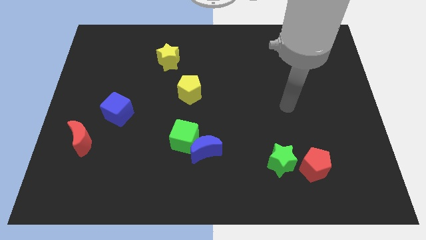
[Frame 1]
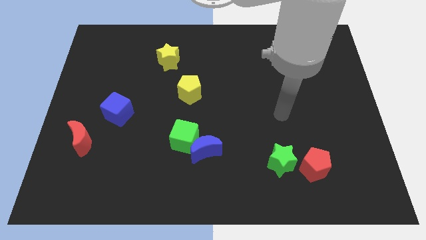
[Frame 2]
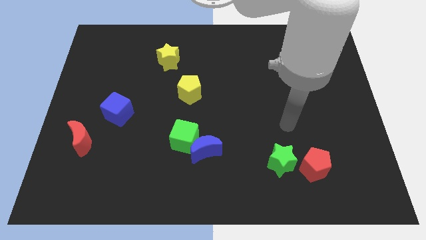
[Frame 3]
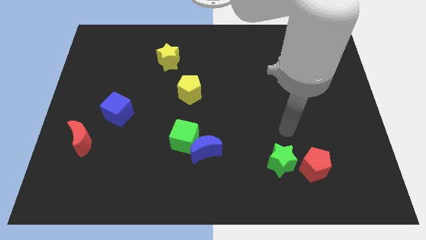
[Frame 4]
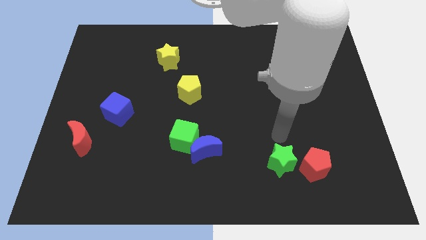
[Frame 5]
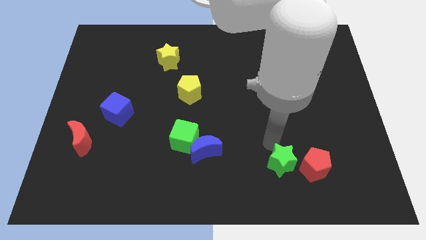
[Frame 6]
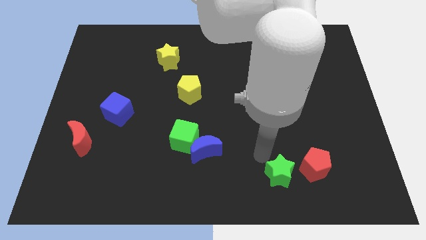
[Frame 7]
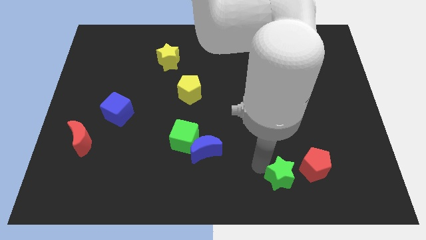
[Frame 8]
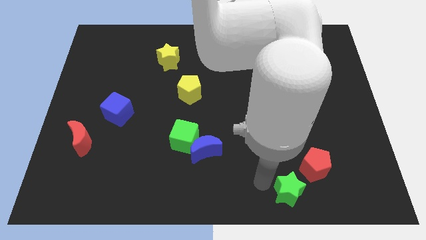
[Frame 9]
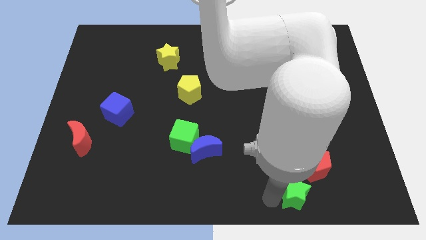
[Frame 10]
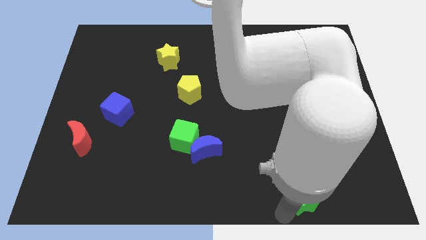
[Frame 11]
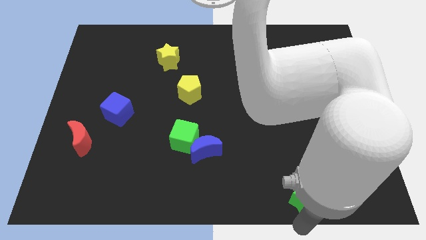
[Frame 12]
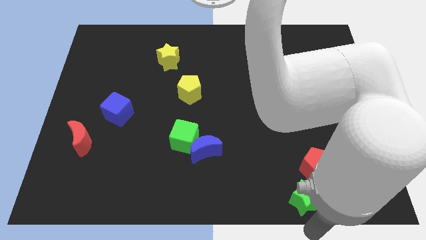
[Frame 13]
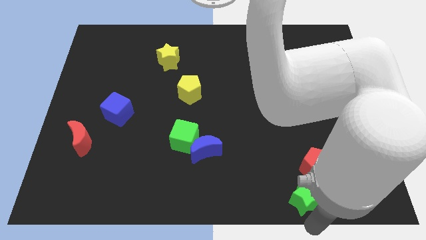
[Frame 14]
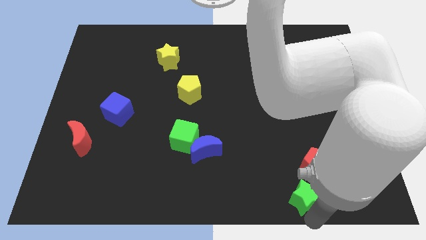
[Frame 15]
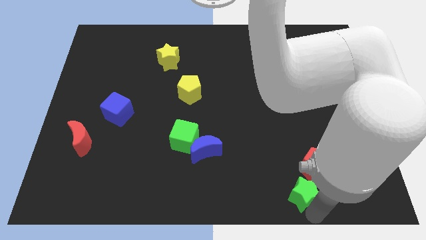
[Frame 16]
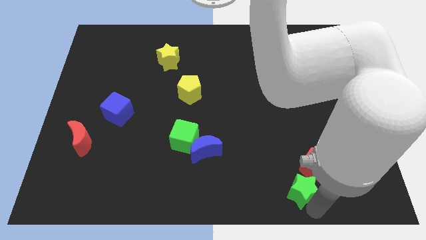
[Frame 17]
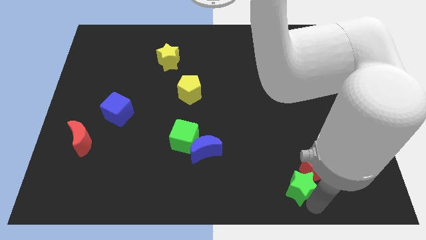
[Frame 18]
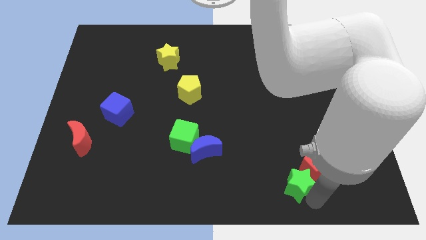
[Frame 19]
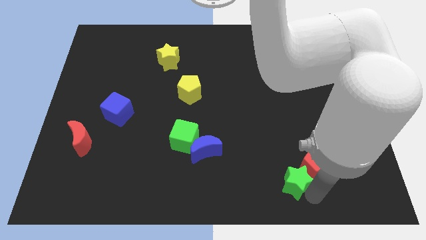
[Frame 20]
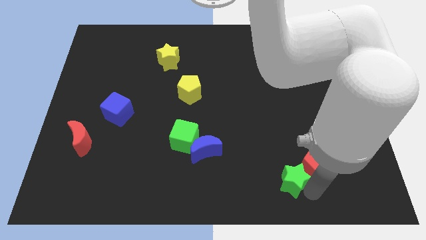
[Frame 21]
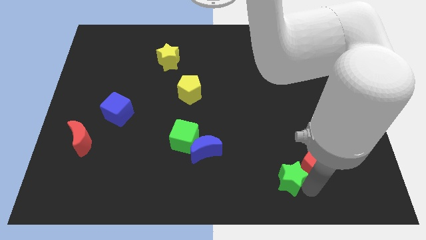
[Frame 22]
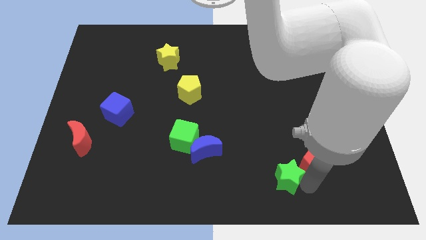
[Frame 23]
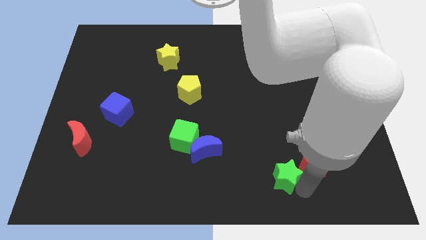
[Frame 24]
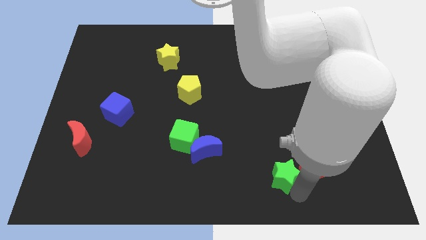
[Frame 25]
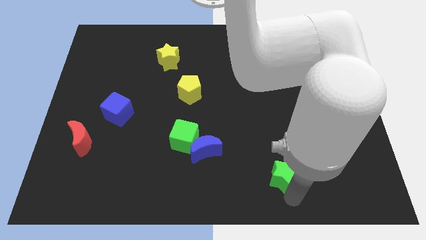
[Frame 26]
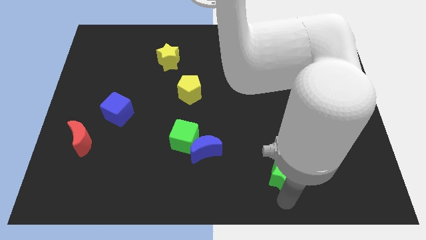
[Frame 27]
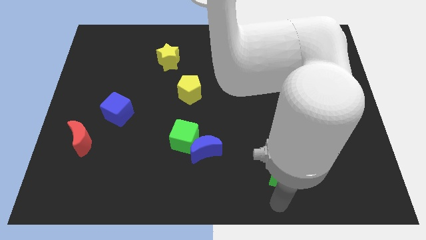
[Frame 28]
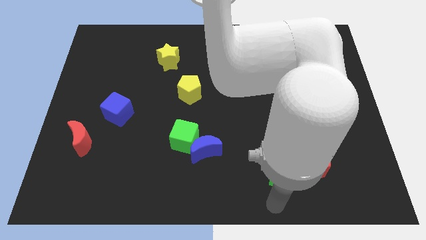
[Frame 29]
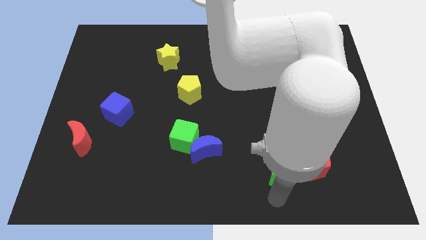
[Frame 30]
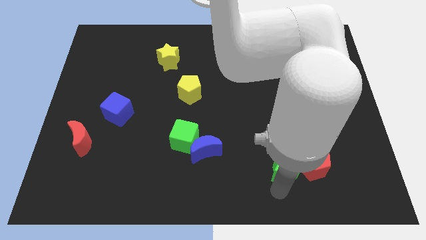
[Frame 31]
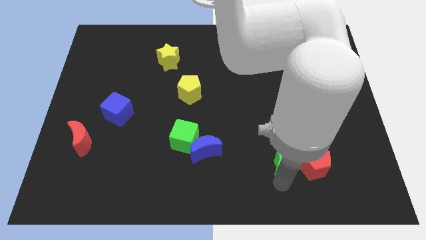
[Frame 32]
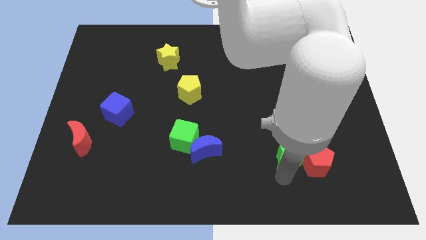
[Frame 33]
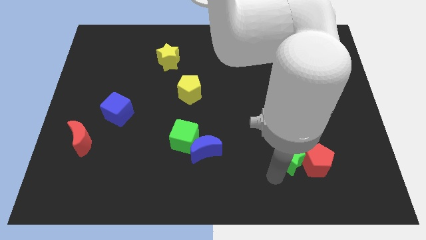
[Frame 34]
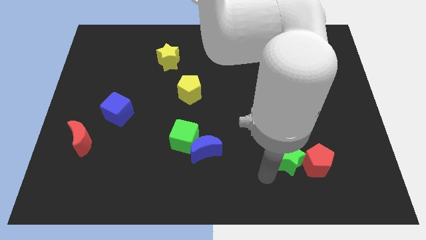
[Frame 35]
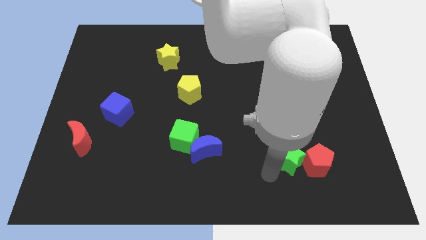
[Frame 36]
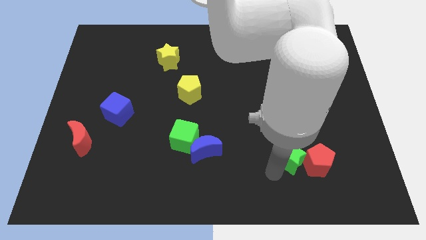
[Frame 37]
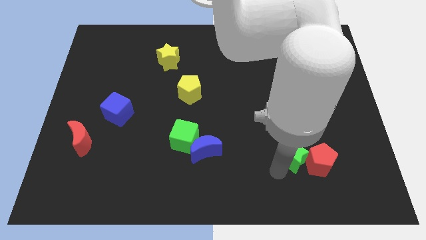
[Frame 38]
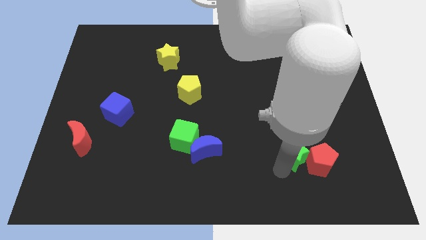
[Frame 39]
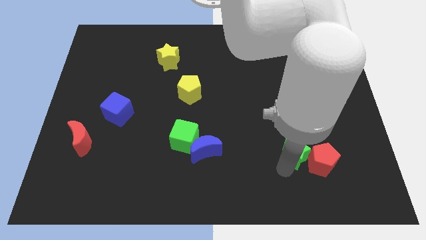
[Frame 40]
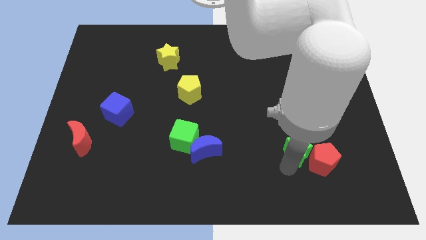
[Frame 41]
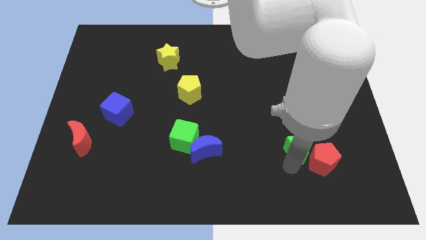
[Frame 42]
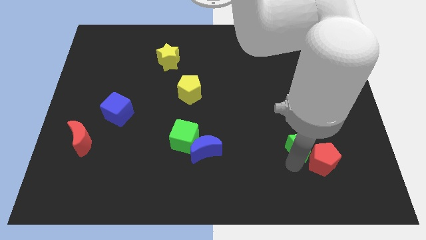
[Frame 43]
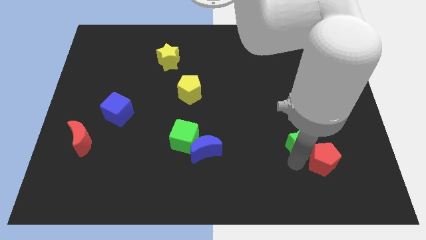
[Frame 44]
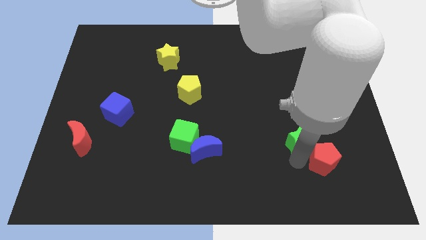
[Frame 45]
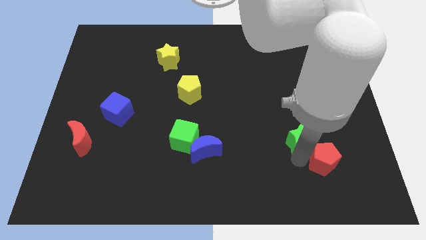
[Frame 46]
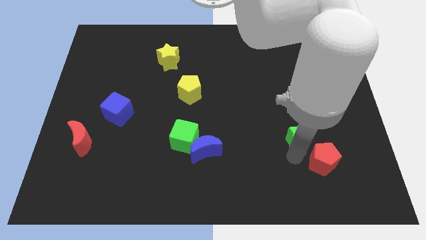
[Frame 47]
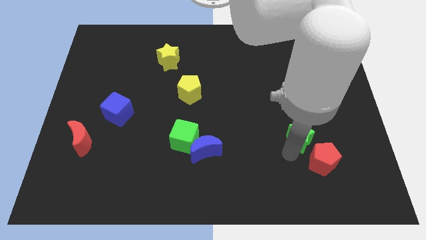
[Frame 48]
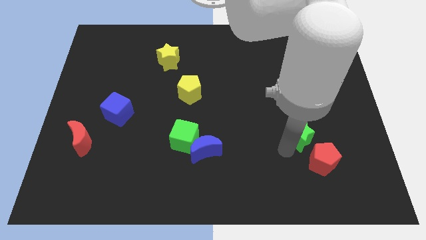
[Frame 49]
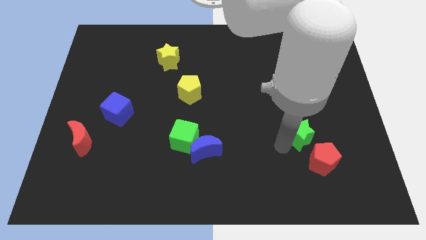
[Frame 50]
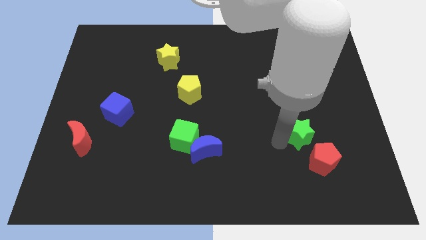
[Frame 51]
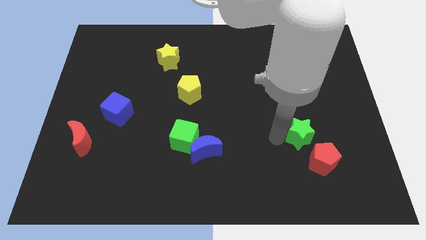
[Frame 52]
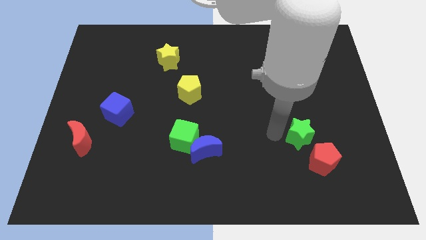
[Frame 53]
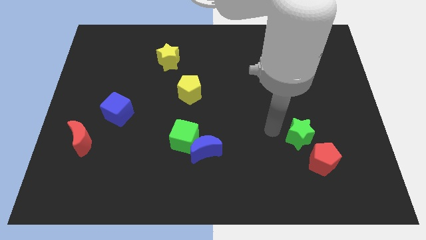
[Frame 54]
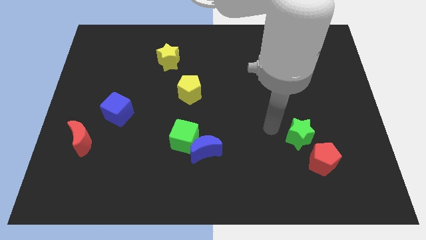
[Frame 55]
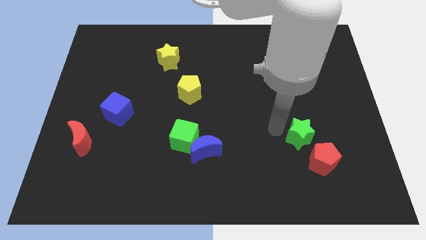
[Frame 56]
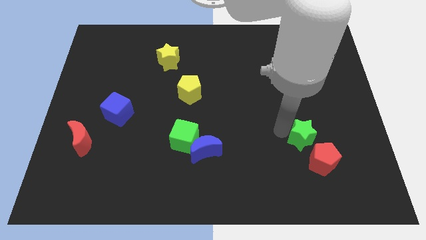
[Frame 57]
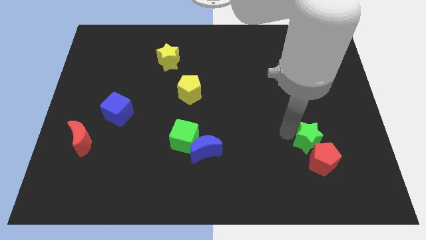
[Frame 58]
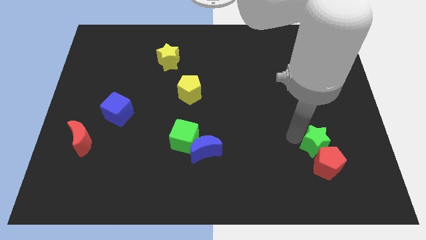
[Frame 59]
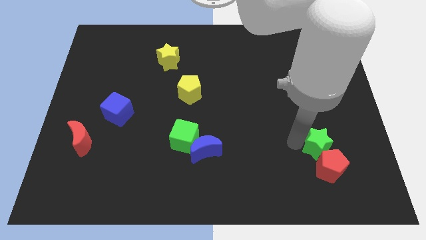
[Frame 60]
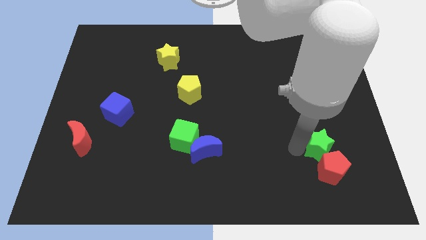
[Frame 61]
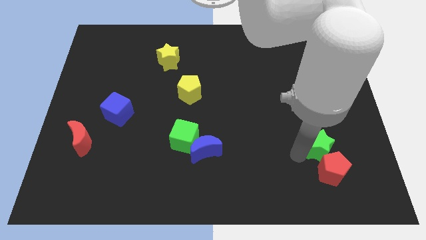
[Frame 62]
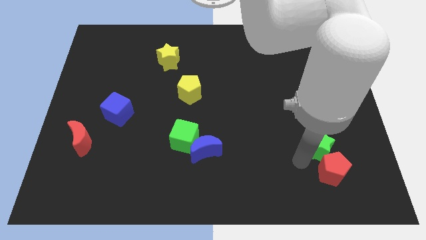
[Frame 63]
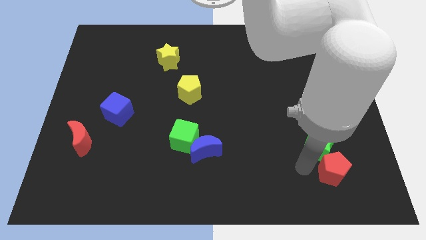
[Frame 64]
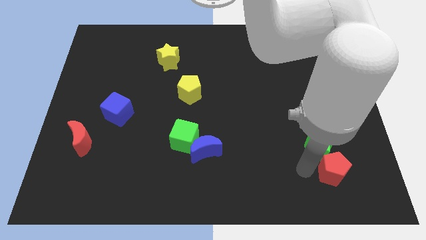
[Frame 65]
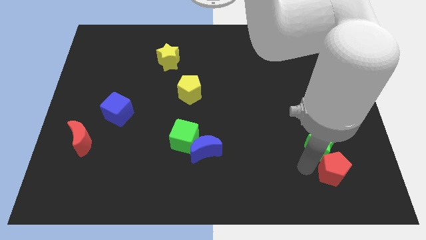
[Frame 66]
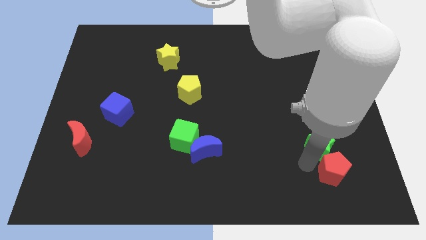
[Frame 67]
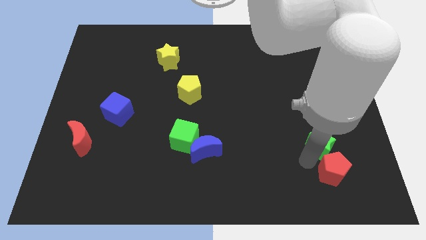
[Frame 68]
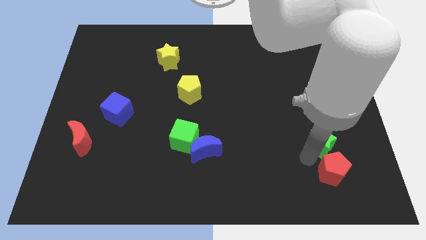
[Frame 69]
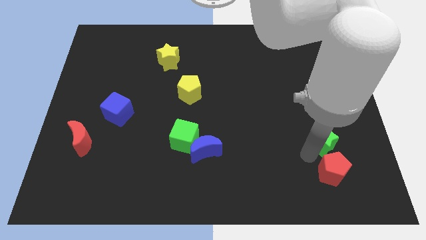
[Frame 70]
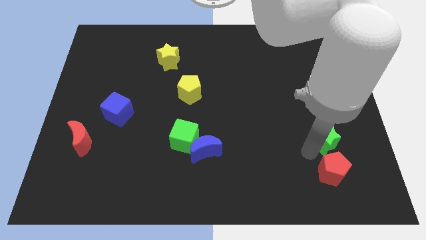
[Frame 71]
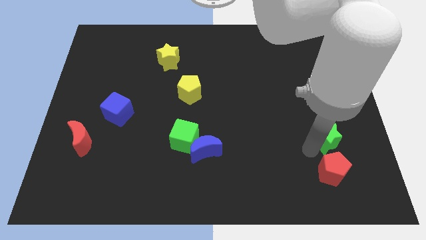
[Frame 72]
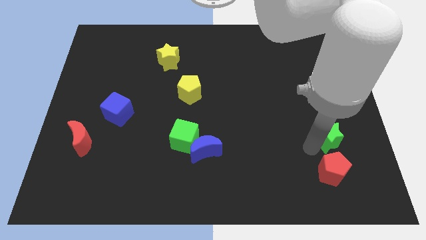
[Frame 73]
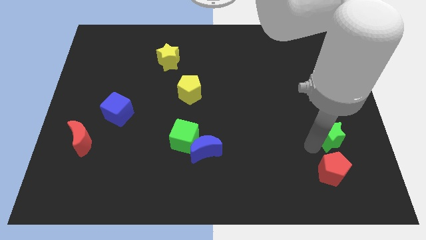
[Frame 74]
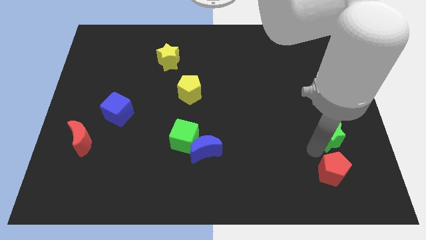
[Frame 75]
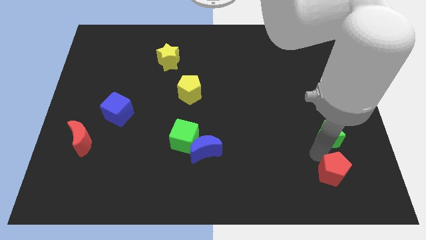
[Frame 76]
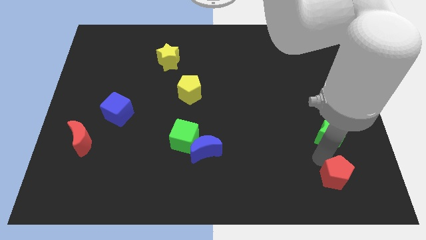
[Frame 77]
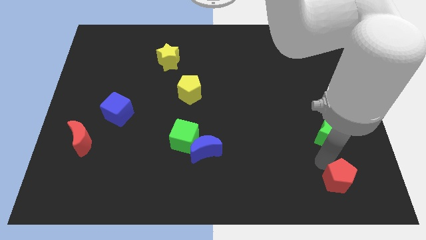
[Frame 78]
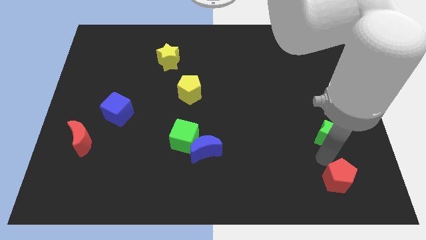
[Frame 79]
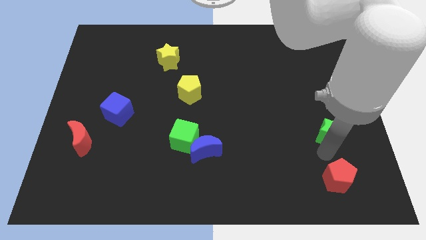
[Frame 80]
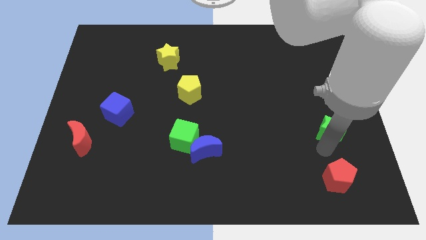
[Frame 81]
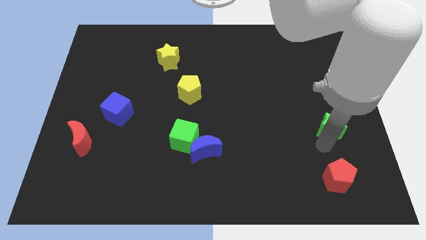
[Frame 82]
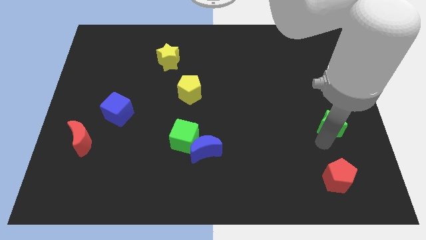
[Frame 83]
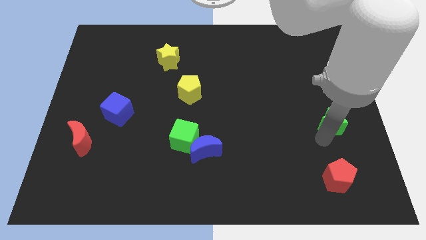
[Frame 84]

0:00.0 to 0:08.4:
move the green star to the right side
